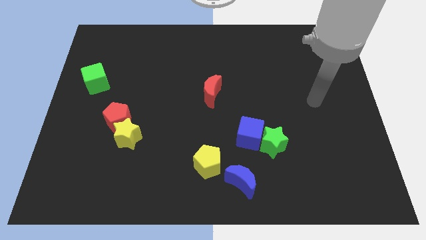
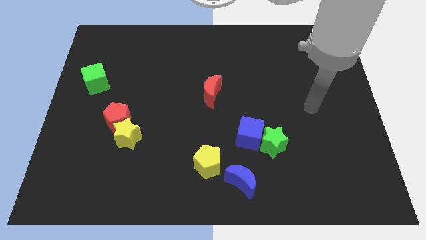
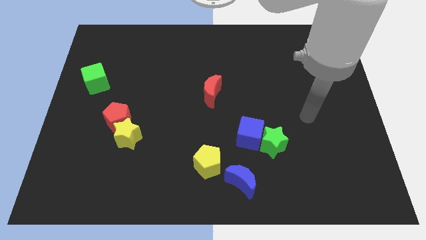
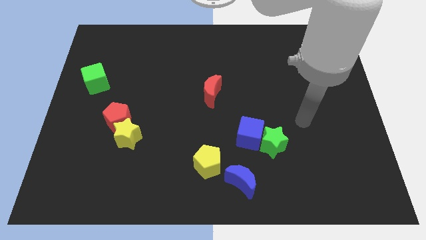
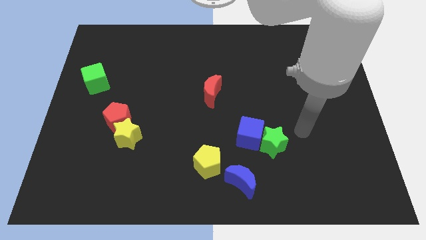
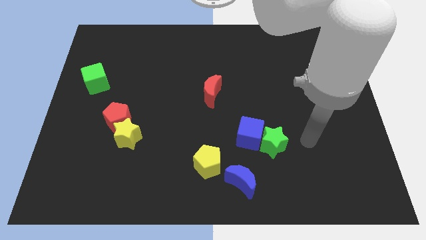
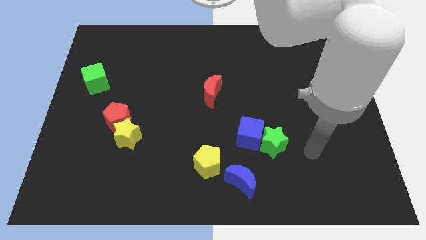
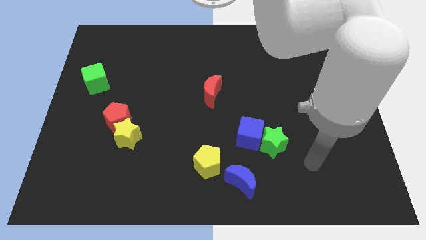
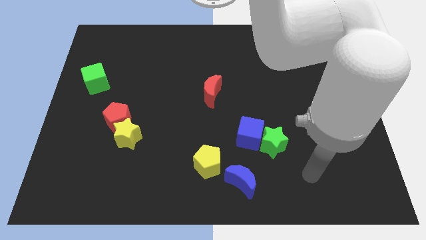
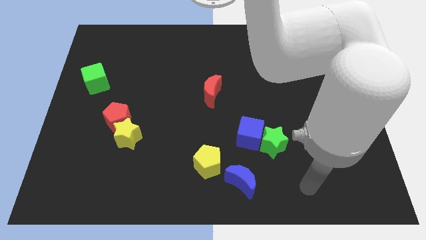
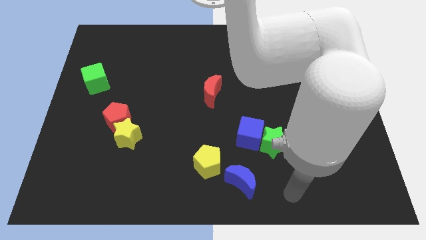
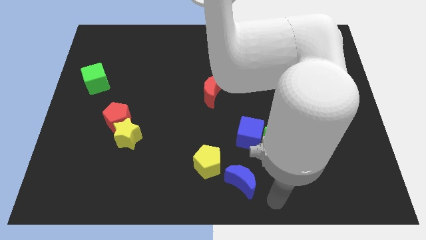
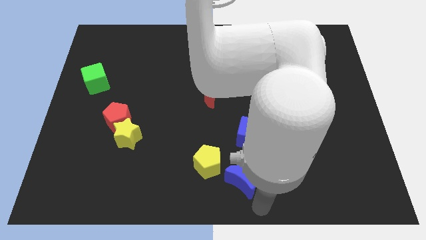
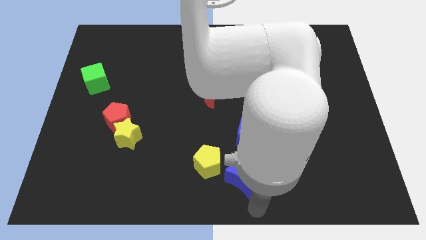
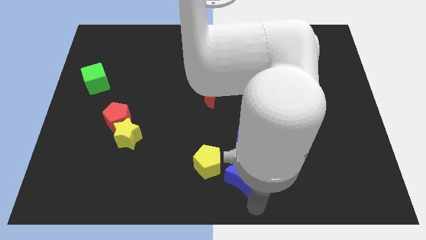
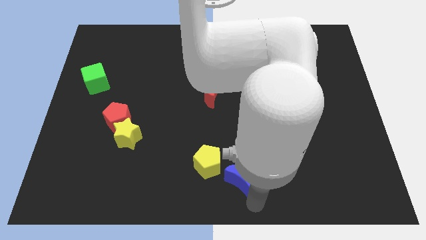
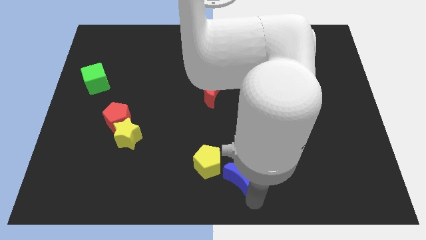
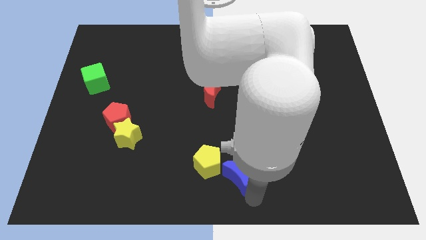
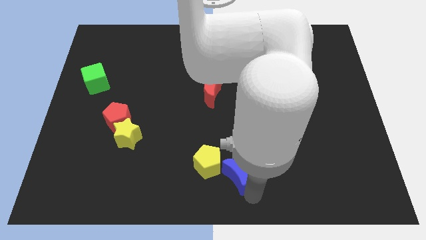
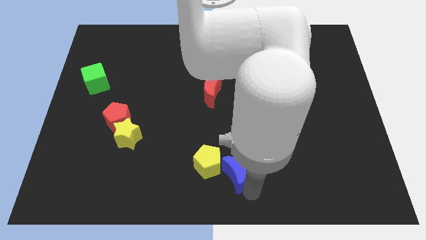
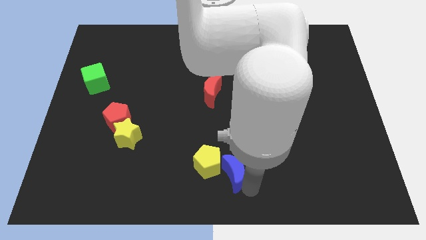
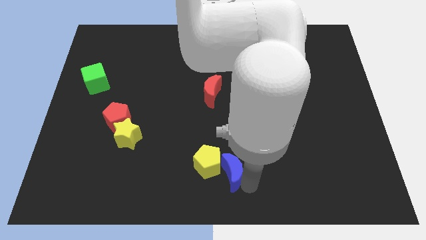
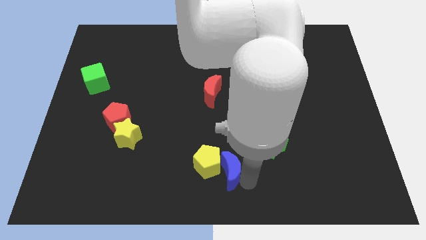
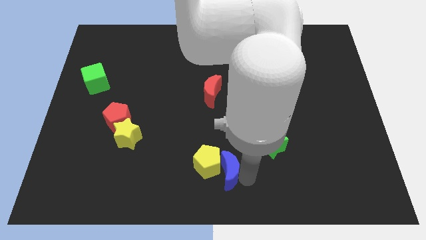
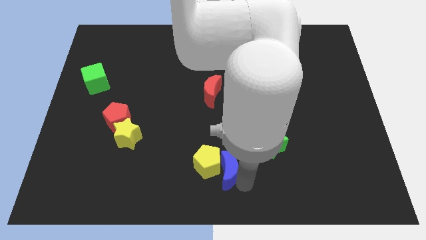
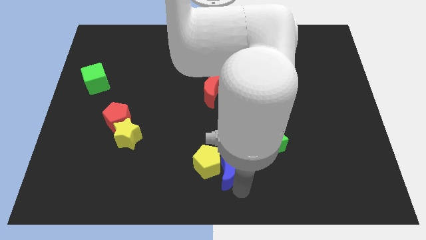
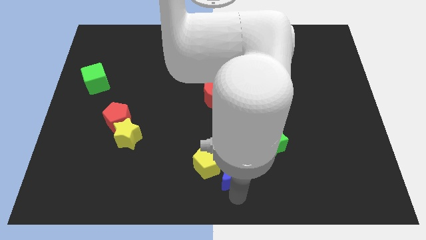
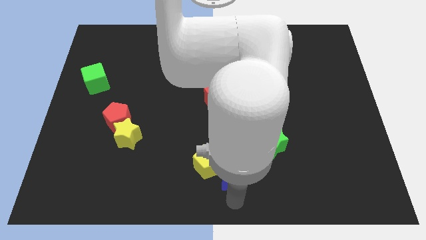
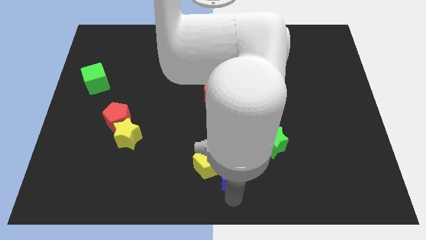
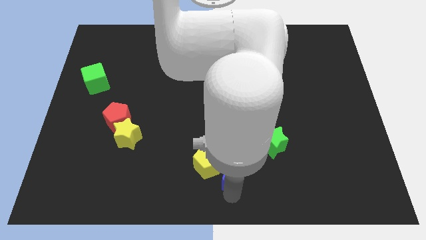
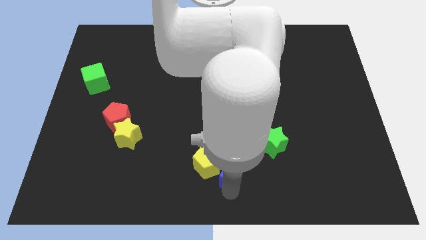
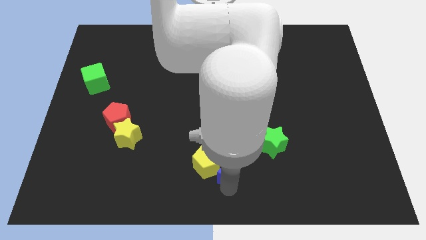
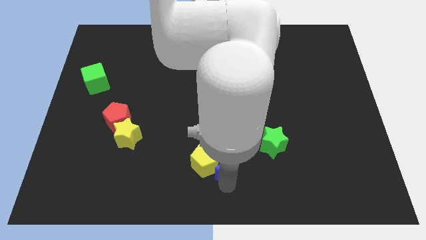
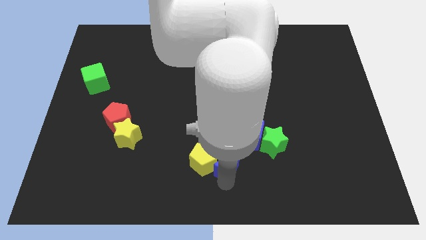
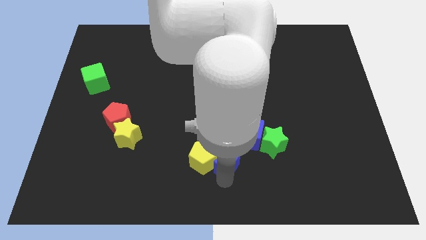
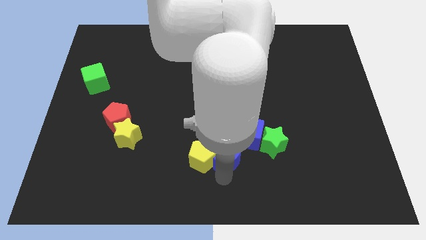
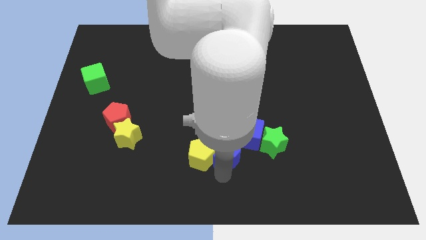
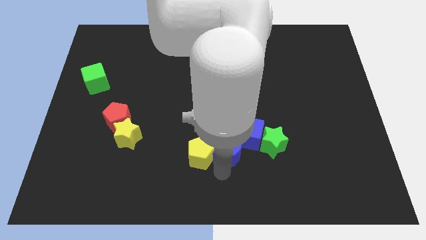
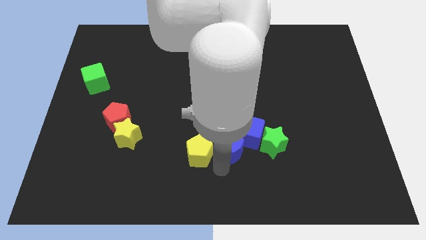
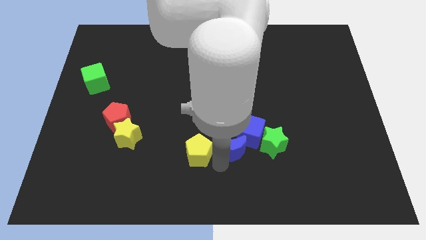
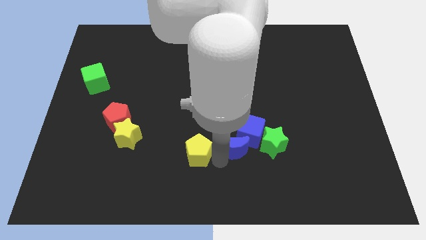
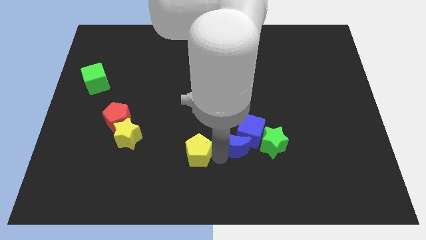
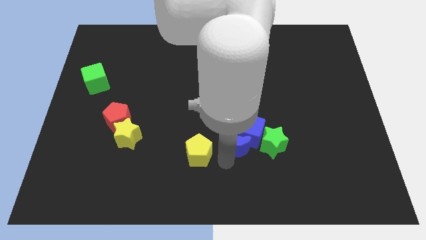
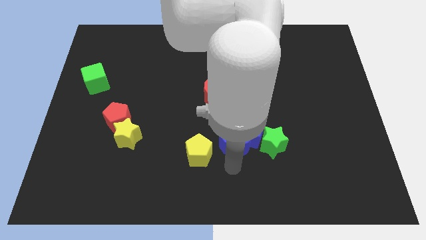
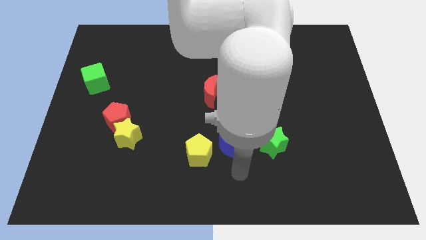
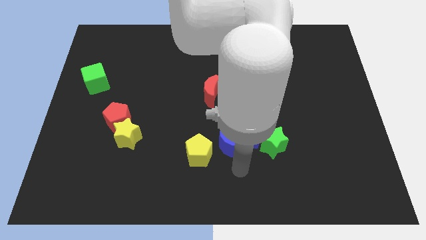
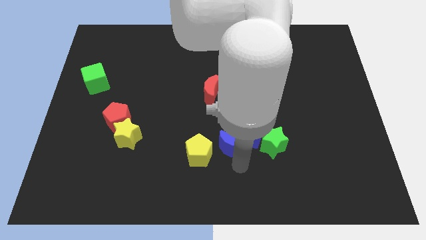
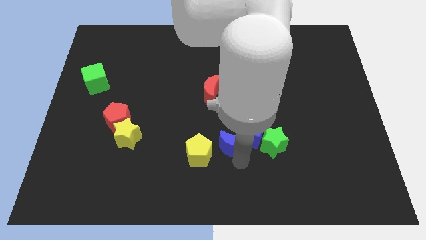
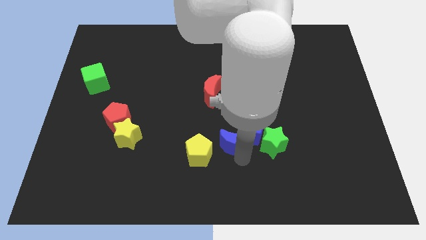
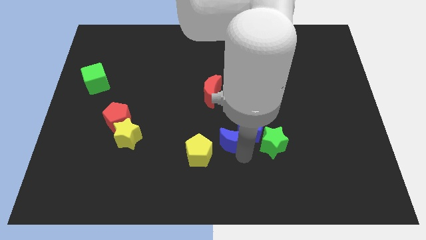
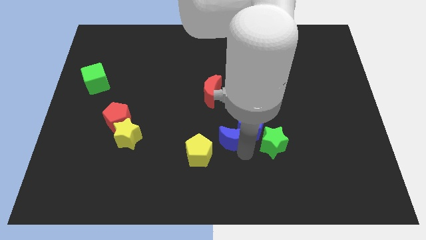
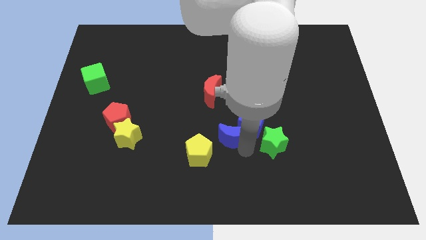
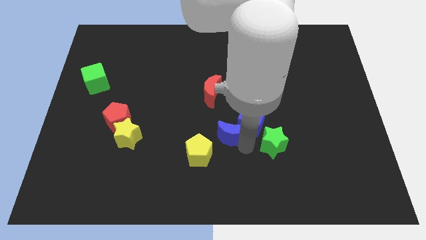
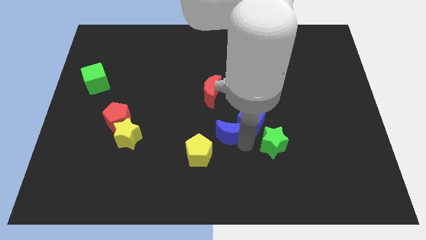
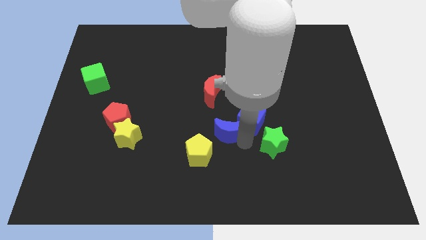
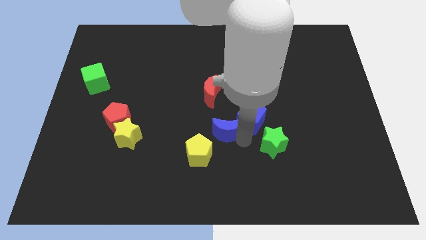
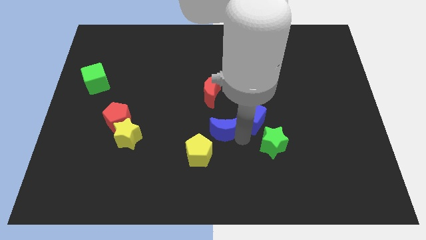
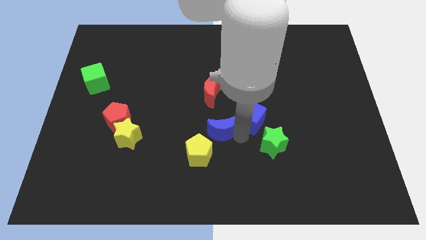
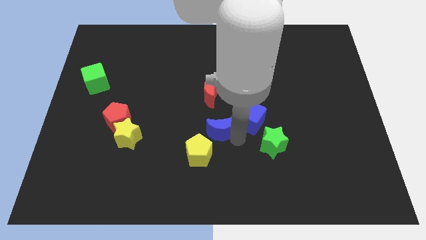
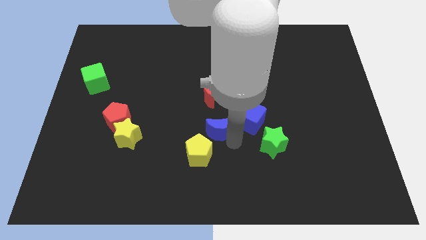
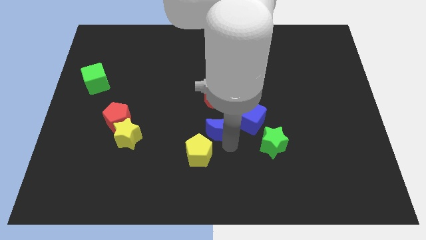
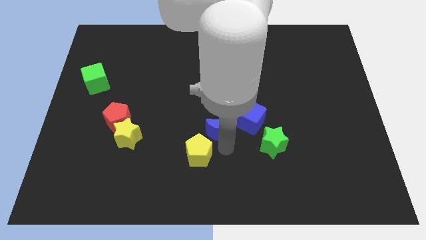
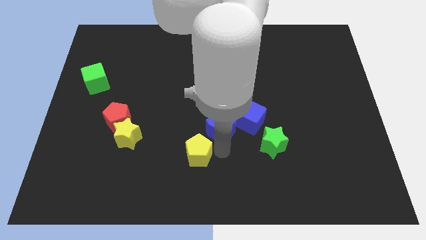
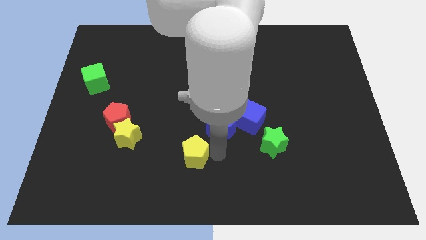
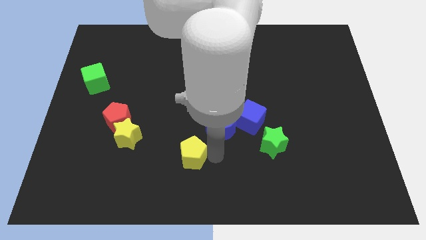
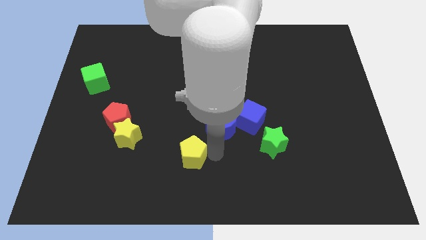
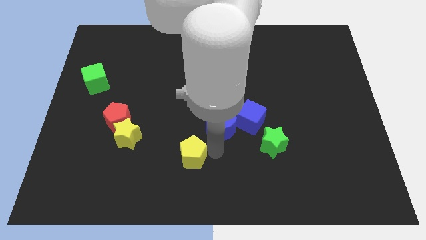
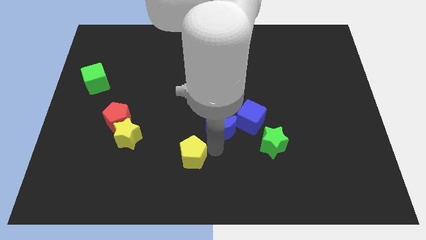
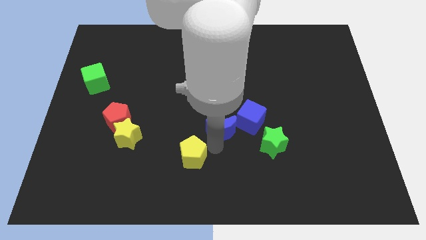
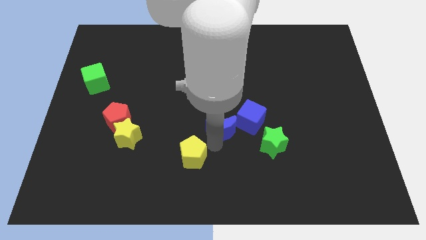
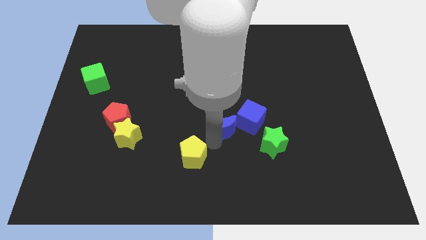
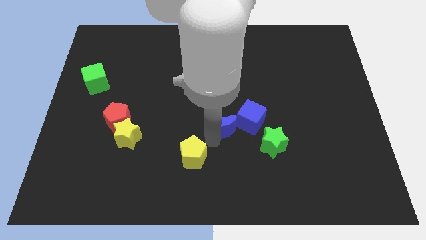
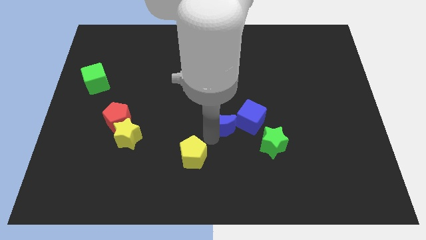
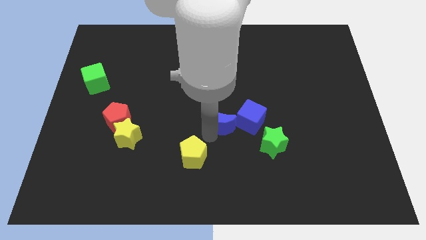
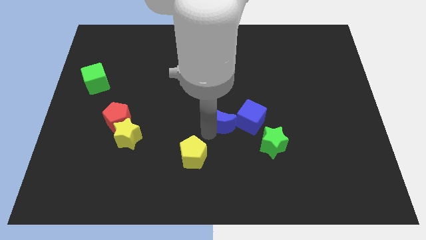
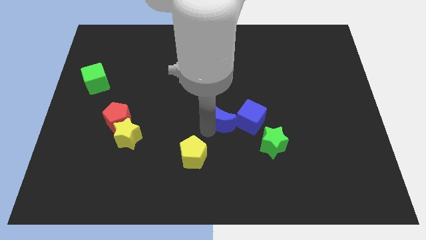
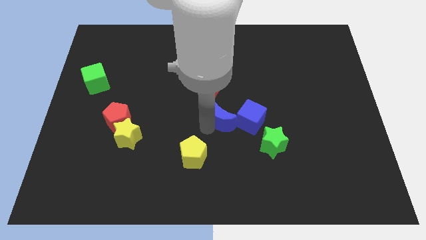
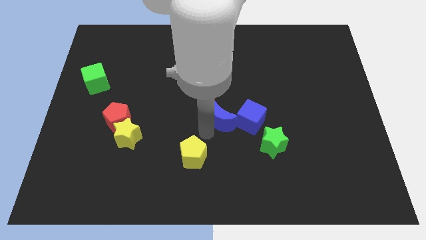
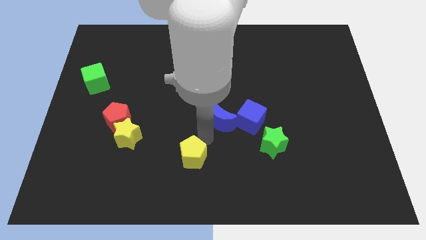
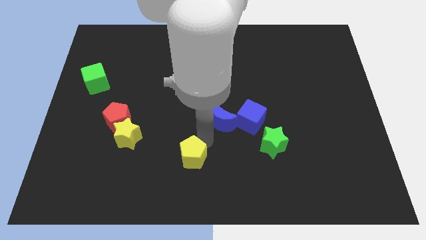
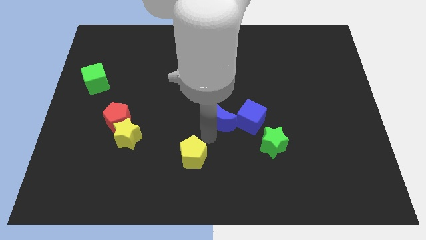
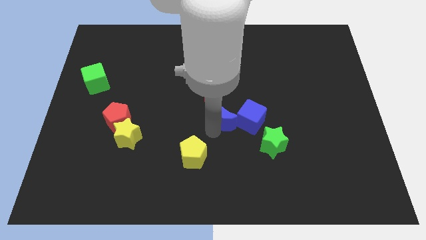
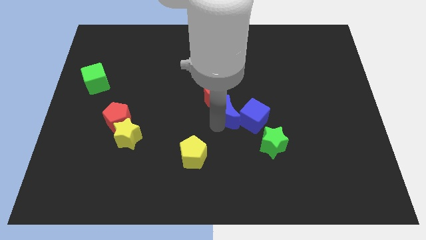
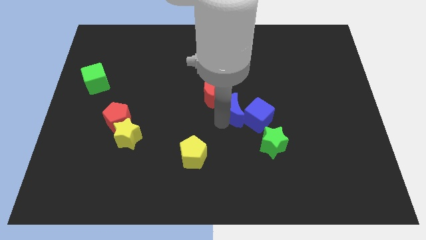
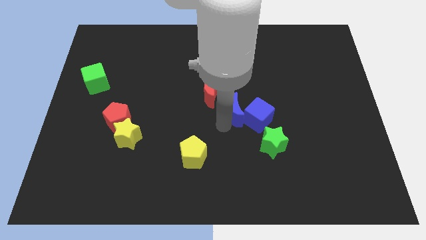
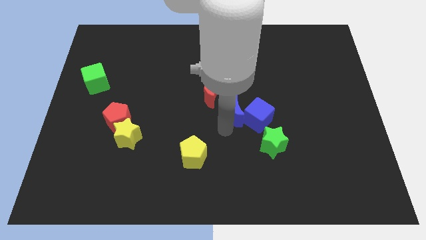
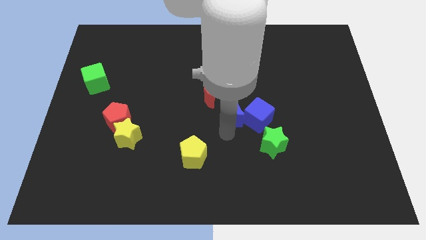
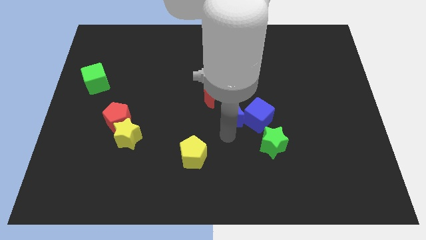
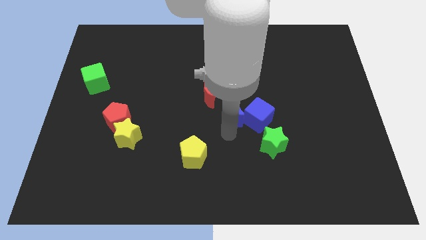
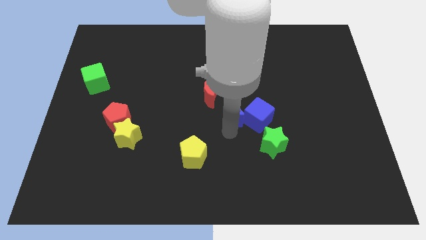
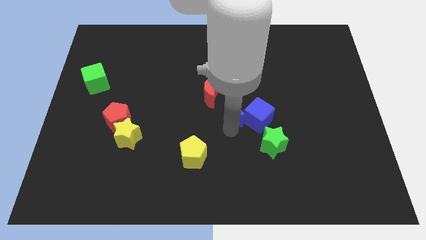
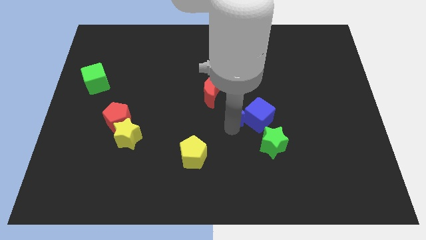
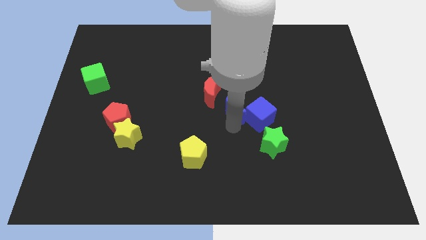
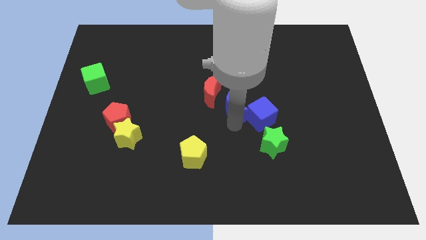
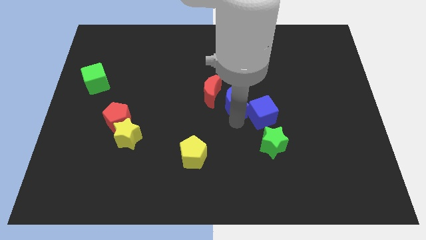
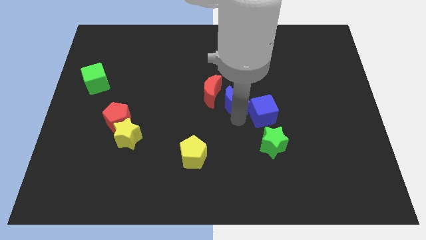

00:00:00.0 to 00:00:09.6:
slide the blue moon up
